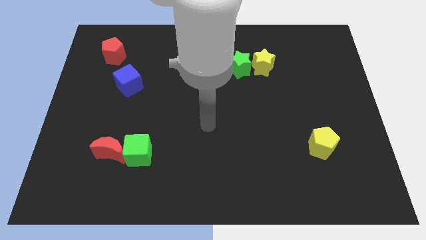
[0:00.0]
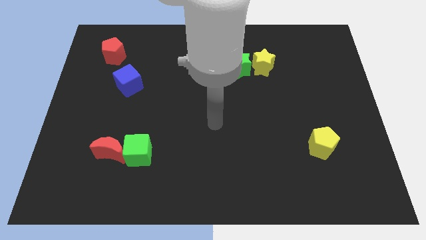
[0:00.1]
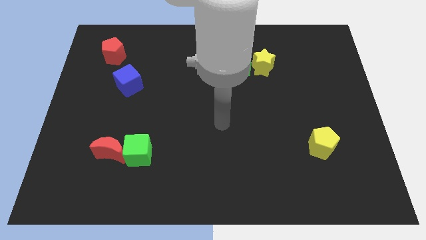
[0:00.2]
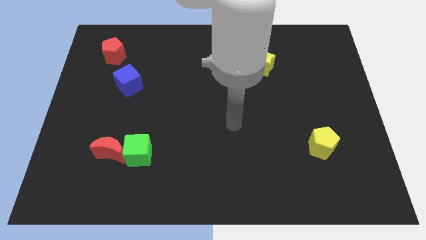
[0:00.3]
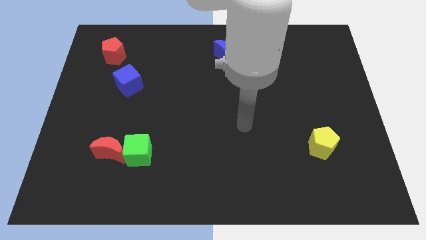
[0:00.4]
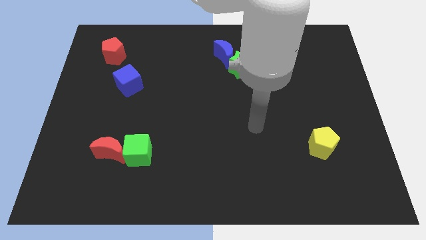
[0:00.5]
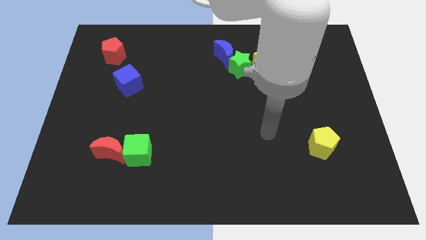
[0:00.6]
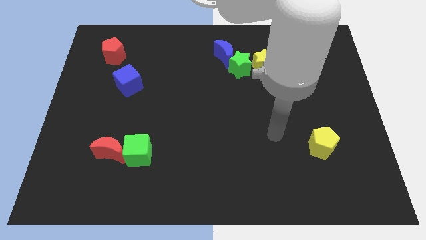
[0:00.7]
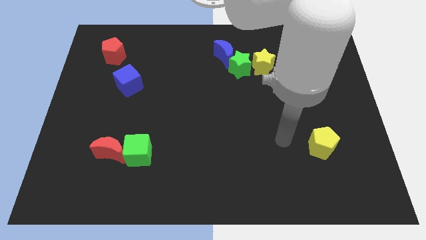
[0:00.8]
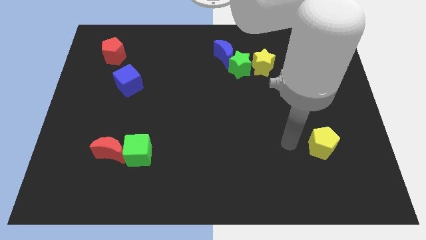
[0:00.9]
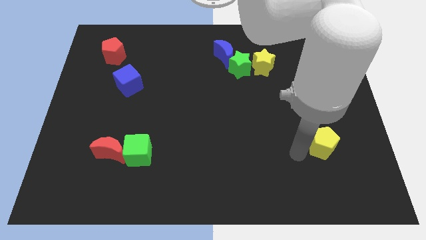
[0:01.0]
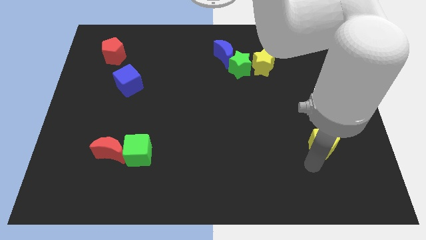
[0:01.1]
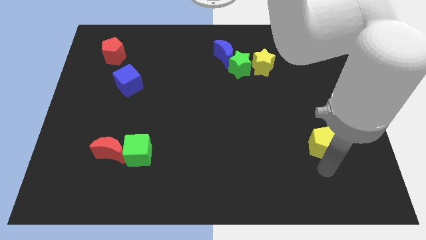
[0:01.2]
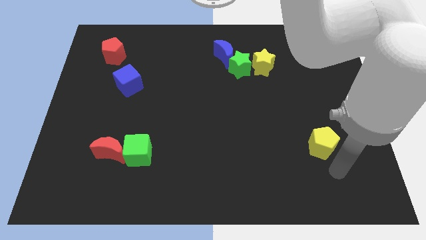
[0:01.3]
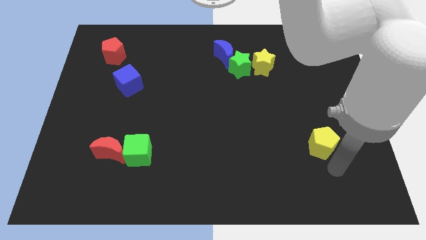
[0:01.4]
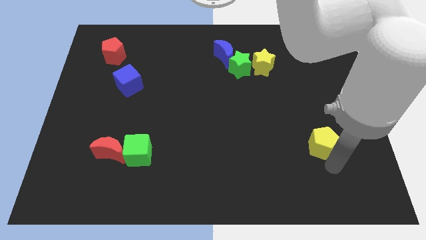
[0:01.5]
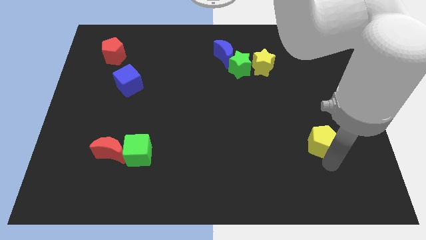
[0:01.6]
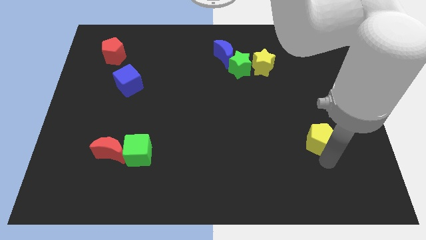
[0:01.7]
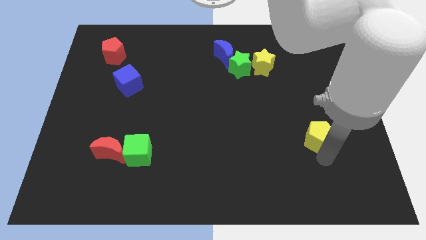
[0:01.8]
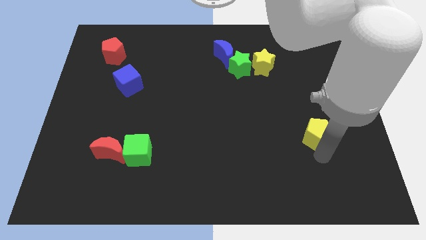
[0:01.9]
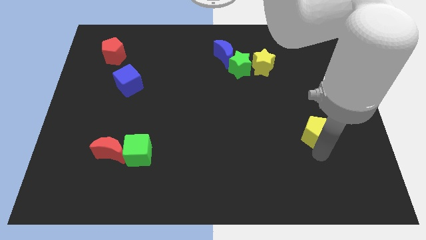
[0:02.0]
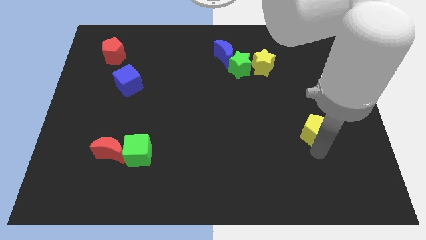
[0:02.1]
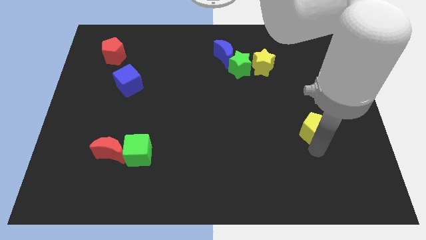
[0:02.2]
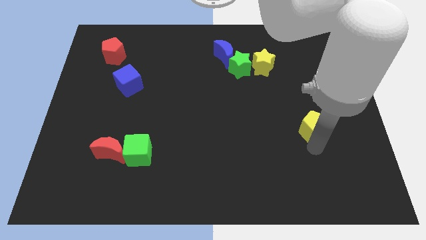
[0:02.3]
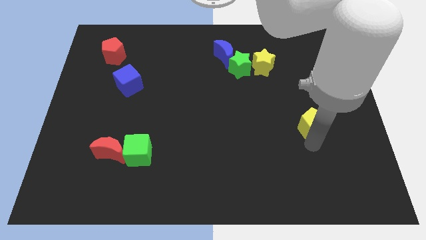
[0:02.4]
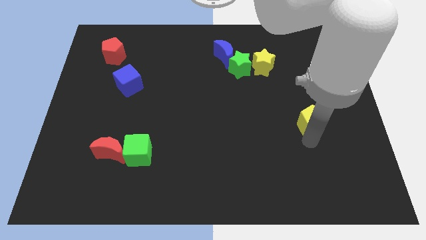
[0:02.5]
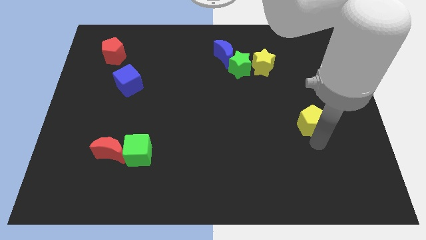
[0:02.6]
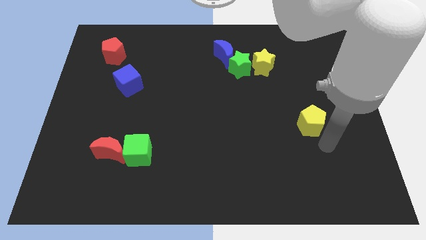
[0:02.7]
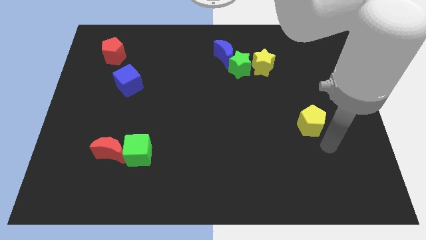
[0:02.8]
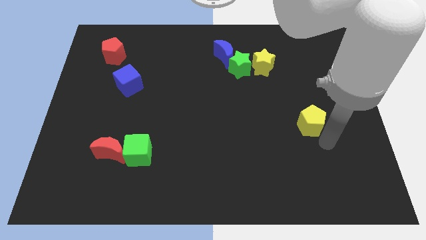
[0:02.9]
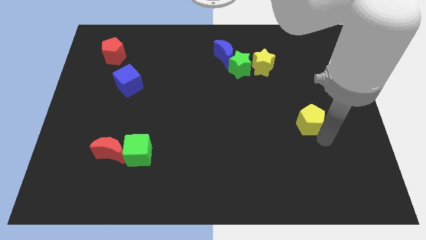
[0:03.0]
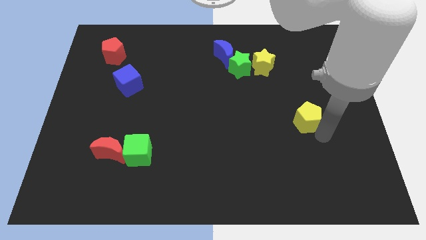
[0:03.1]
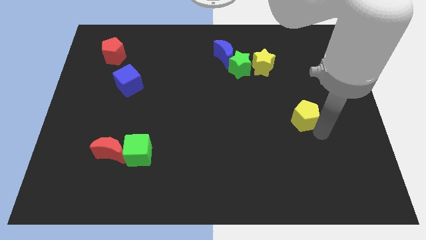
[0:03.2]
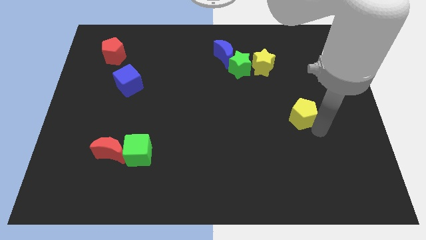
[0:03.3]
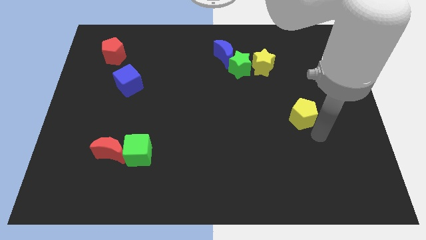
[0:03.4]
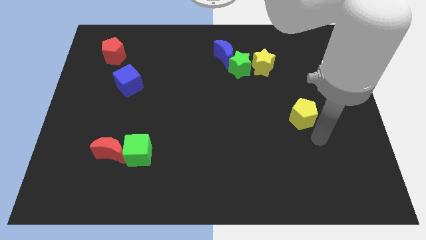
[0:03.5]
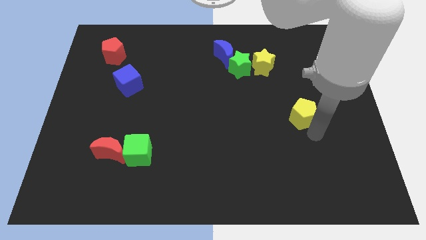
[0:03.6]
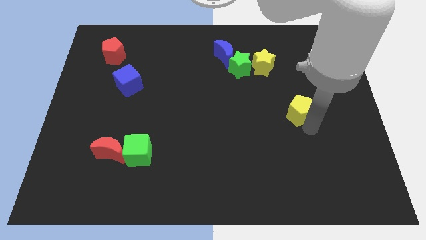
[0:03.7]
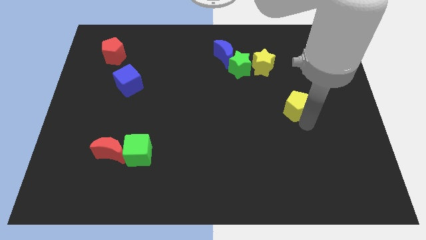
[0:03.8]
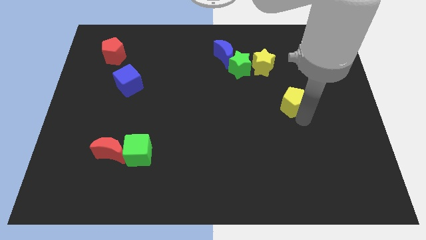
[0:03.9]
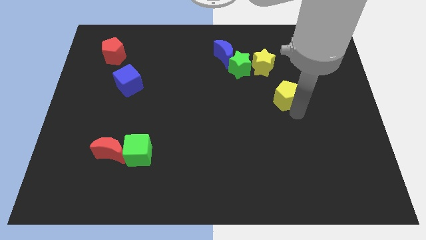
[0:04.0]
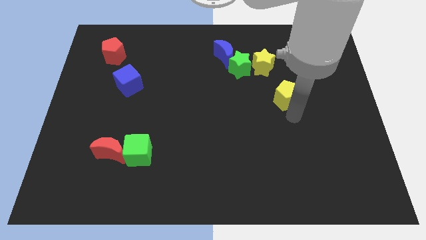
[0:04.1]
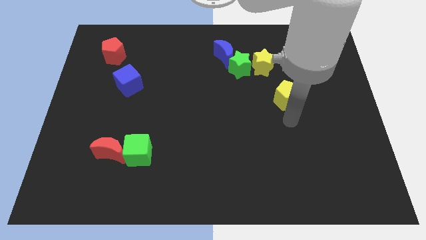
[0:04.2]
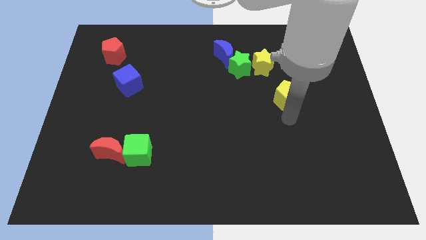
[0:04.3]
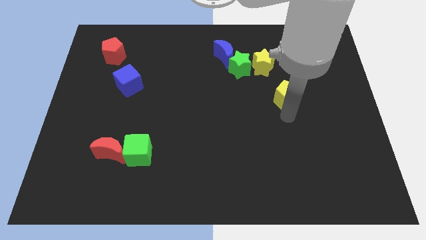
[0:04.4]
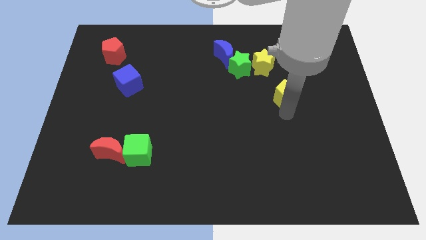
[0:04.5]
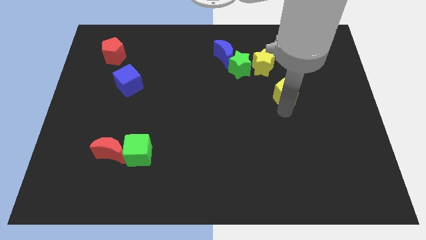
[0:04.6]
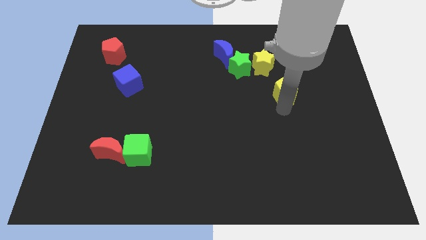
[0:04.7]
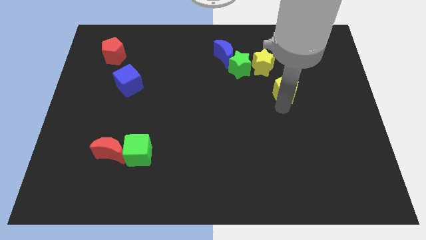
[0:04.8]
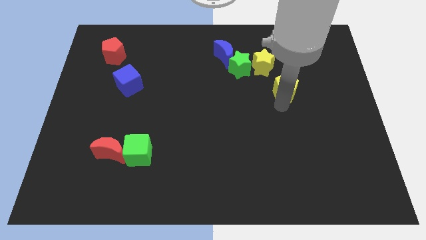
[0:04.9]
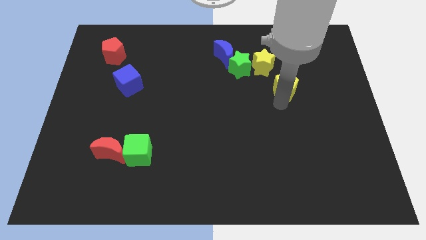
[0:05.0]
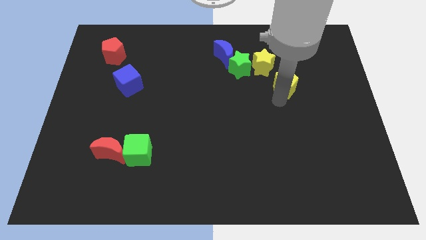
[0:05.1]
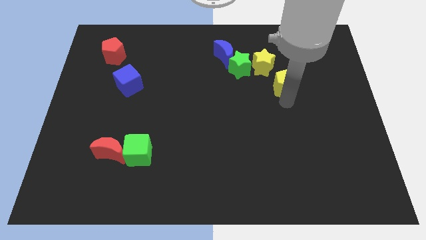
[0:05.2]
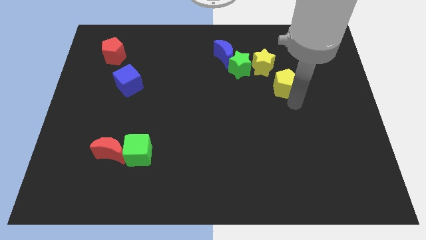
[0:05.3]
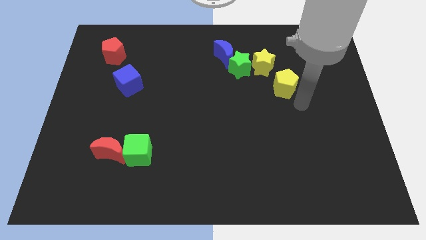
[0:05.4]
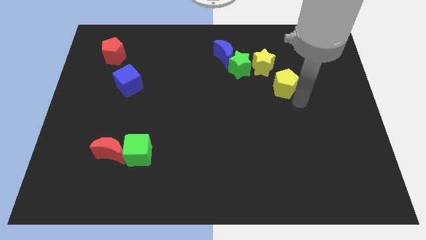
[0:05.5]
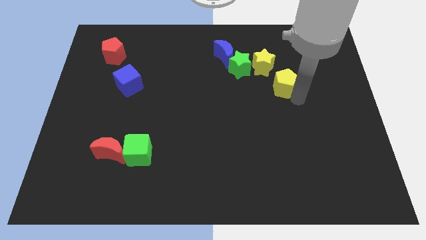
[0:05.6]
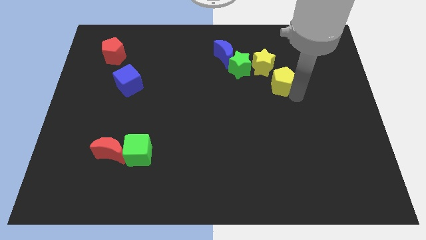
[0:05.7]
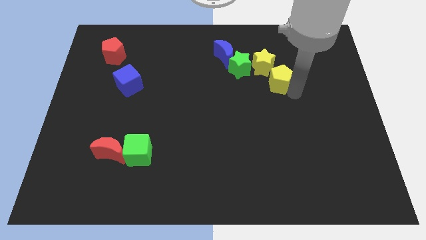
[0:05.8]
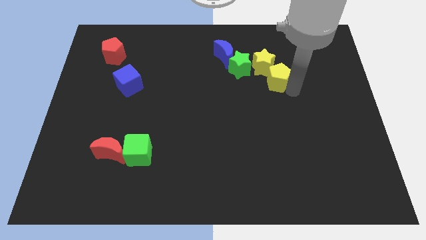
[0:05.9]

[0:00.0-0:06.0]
move the yellow pentagon close to the yellow star
